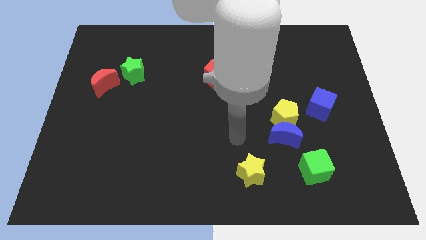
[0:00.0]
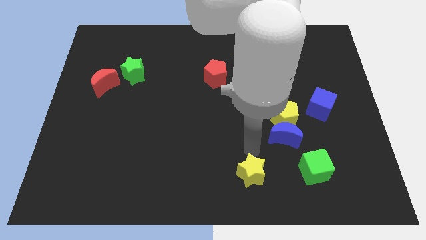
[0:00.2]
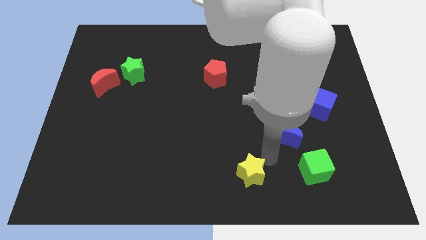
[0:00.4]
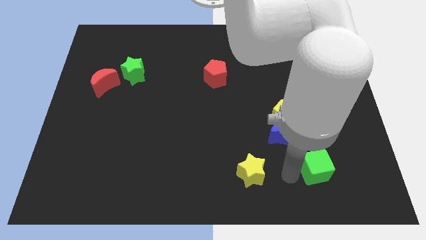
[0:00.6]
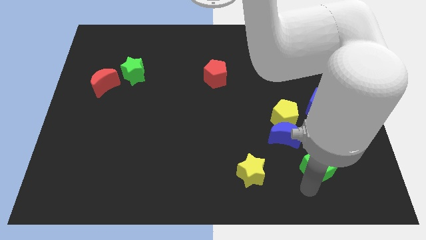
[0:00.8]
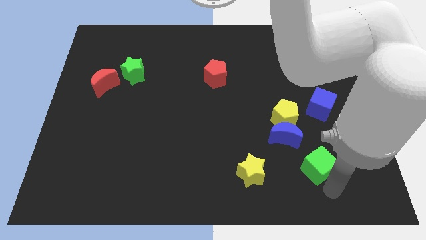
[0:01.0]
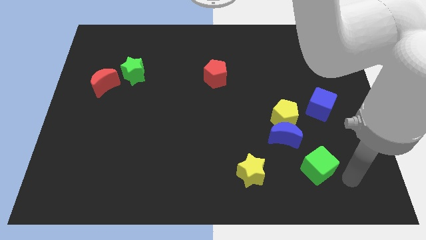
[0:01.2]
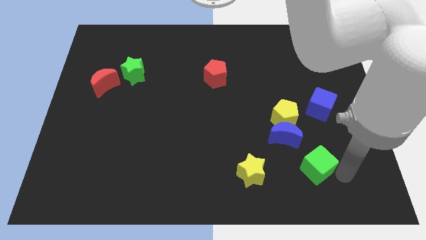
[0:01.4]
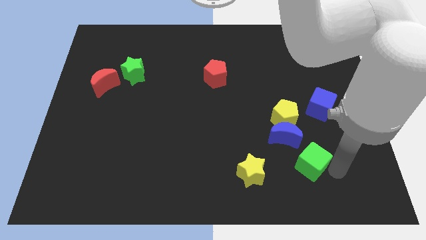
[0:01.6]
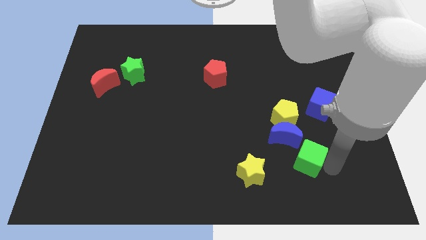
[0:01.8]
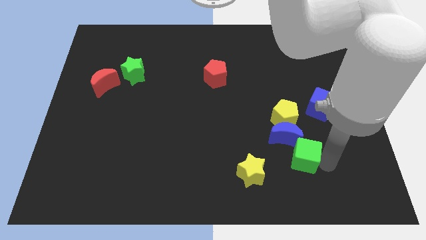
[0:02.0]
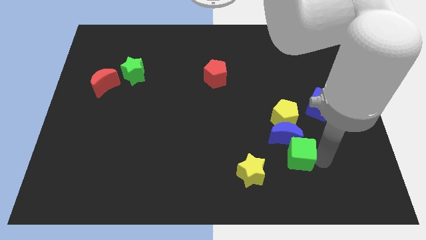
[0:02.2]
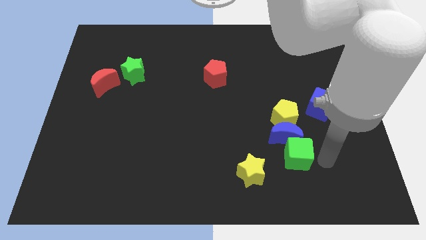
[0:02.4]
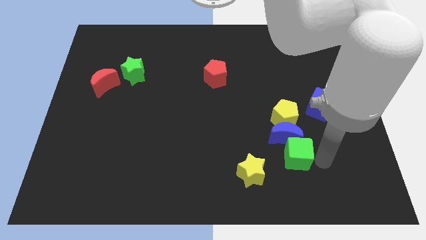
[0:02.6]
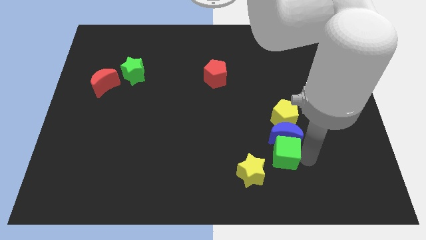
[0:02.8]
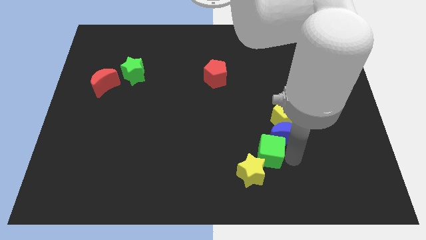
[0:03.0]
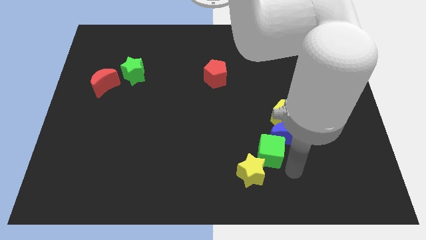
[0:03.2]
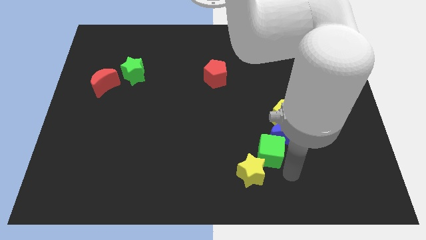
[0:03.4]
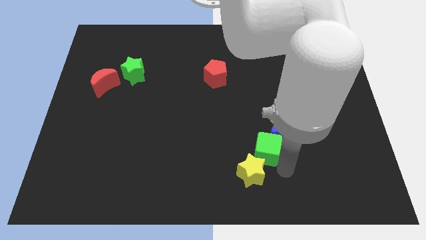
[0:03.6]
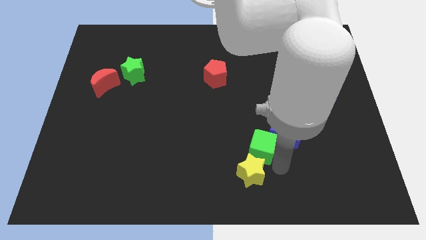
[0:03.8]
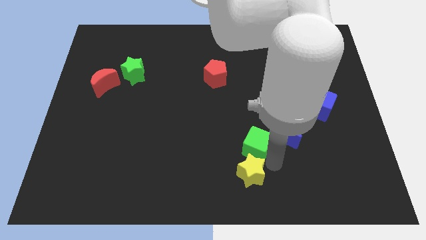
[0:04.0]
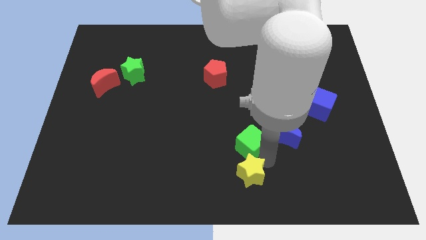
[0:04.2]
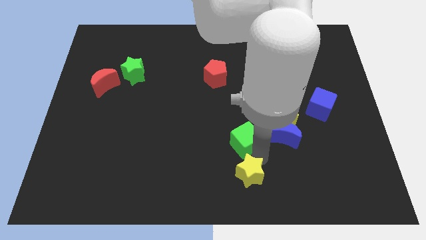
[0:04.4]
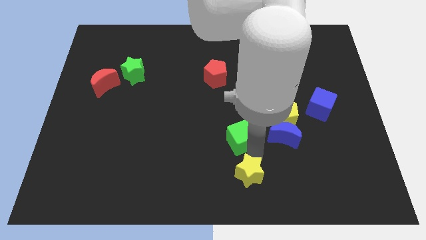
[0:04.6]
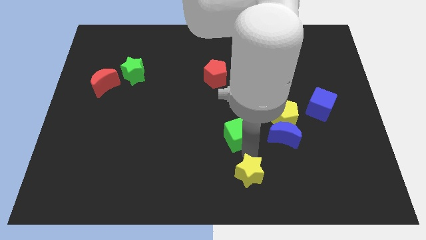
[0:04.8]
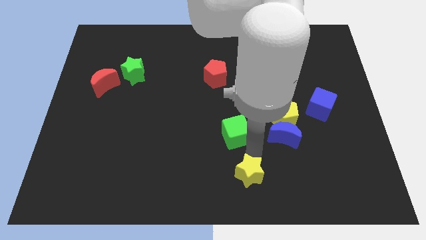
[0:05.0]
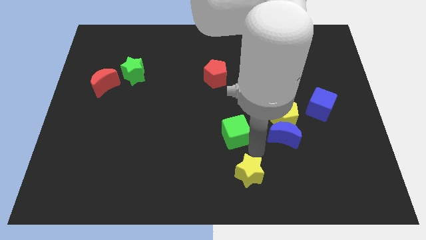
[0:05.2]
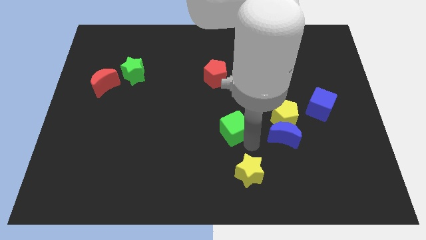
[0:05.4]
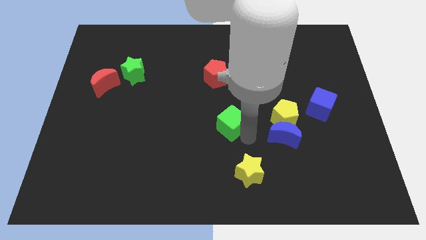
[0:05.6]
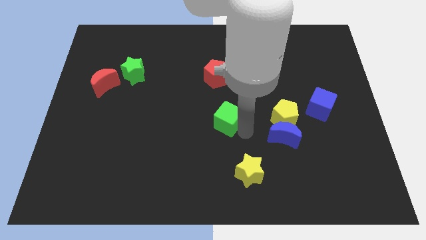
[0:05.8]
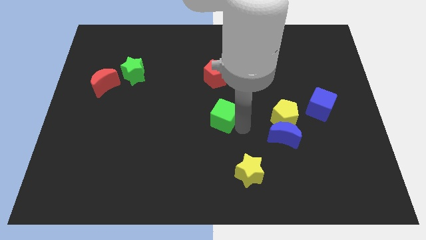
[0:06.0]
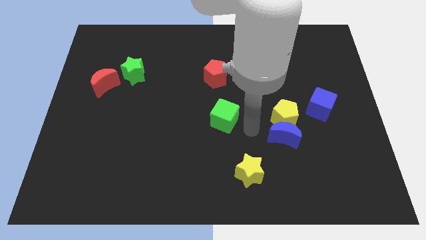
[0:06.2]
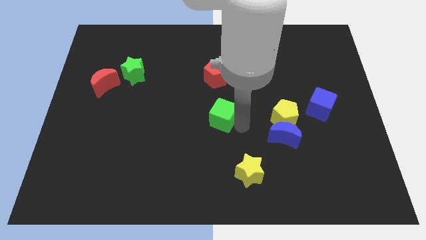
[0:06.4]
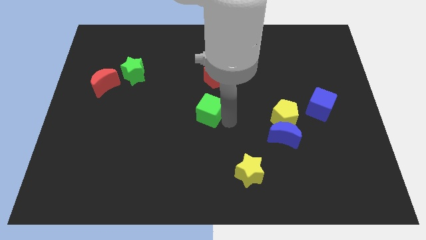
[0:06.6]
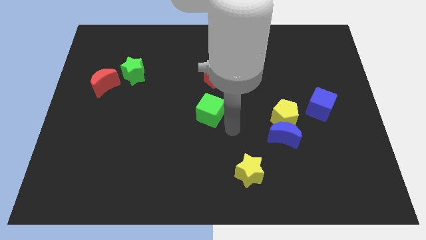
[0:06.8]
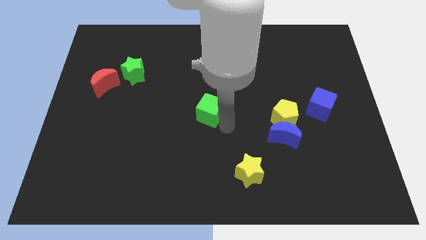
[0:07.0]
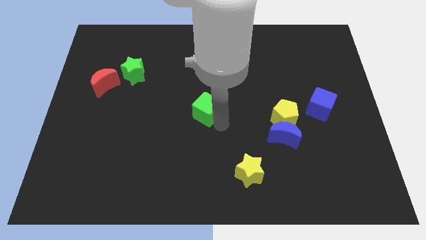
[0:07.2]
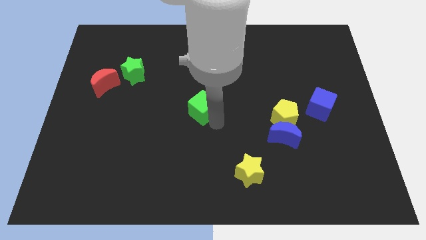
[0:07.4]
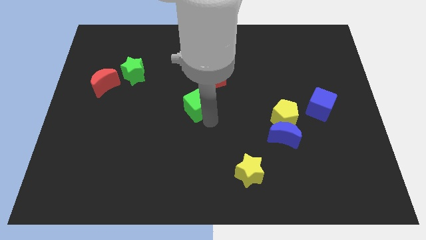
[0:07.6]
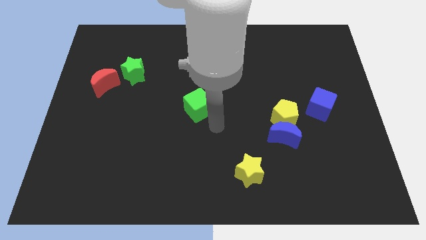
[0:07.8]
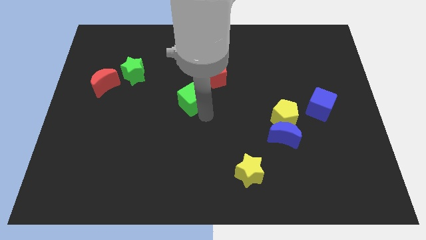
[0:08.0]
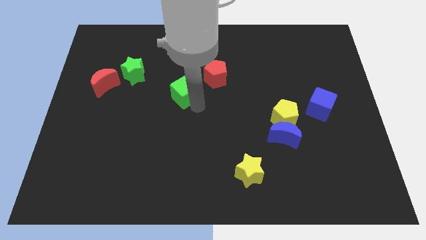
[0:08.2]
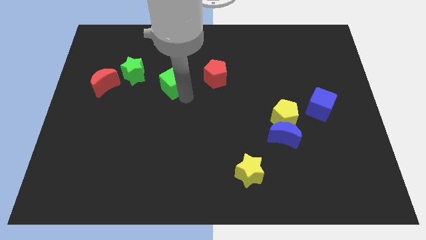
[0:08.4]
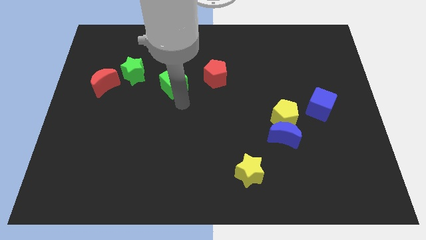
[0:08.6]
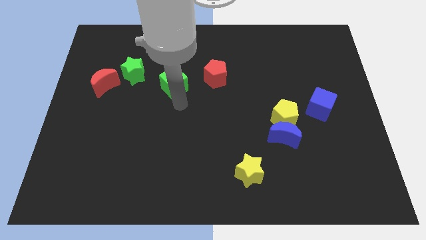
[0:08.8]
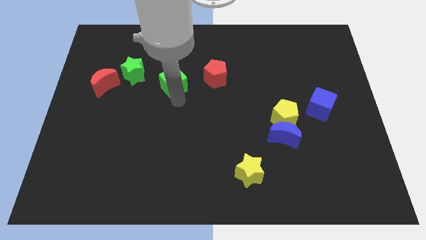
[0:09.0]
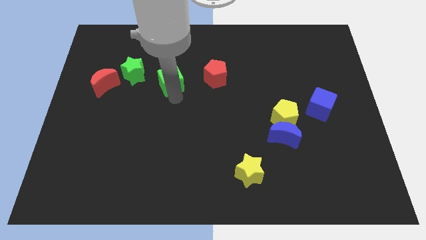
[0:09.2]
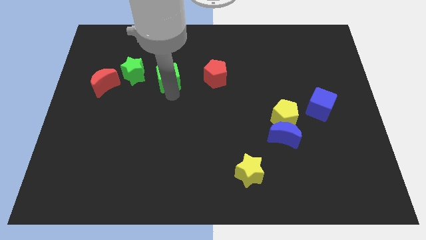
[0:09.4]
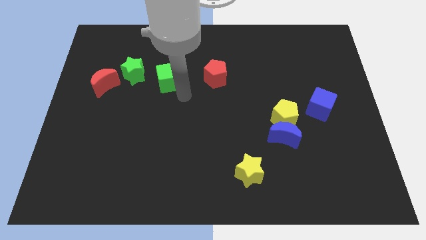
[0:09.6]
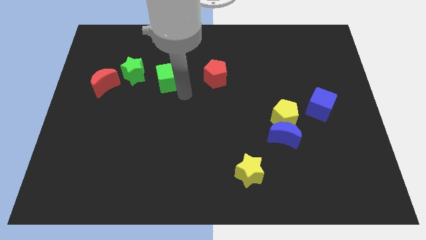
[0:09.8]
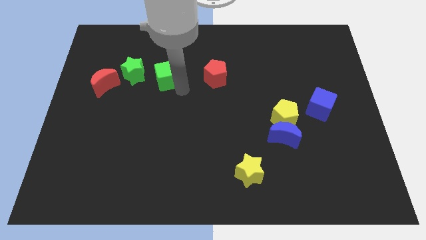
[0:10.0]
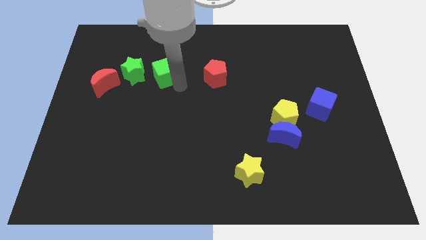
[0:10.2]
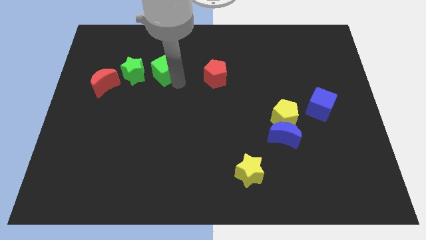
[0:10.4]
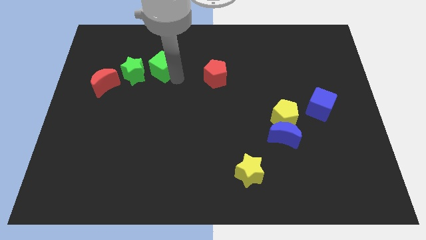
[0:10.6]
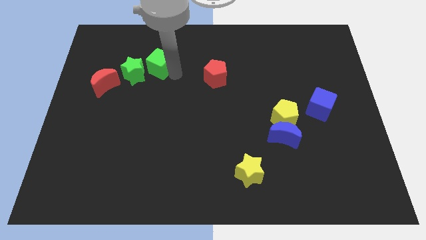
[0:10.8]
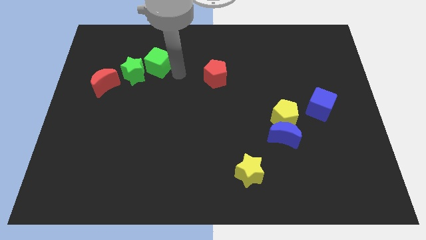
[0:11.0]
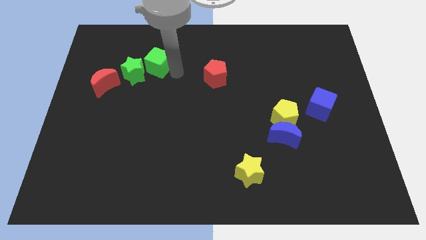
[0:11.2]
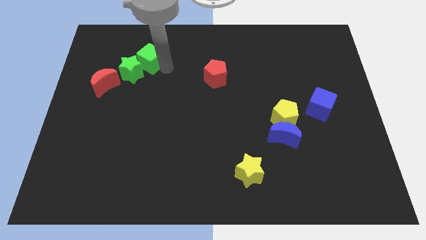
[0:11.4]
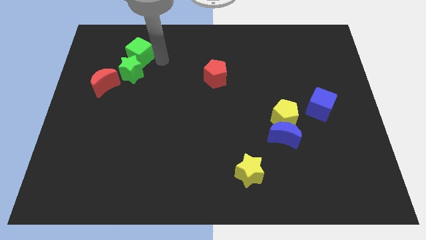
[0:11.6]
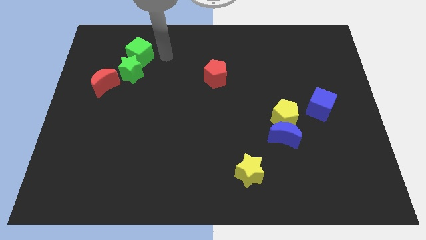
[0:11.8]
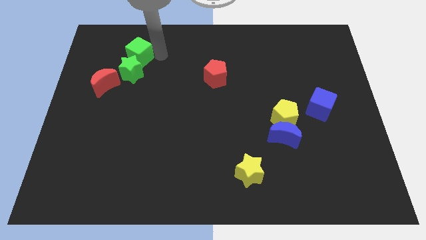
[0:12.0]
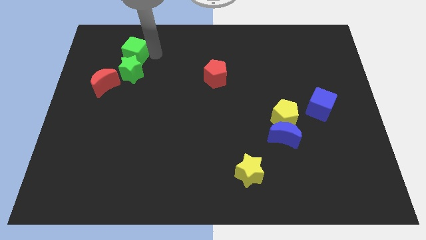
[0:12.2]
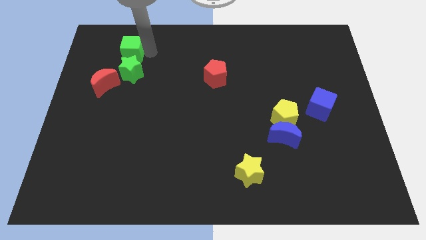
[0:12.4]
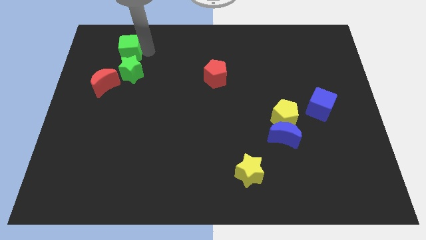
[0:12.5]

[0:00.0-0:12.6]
move the green cube to the top side of the red moon

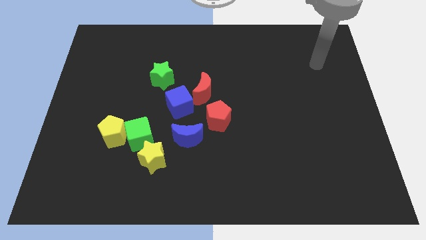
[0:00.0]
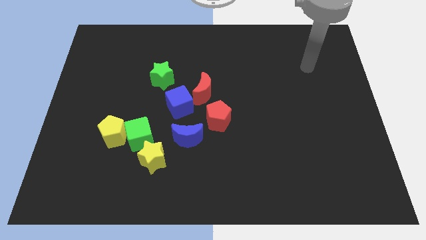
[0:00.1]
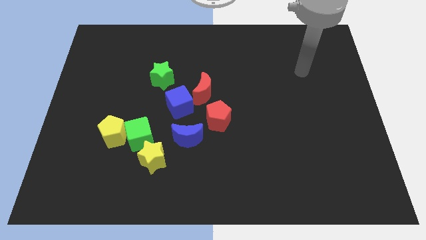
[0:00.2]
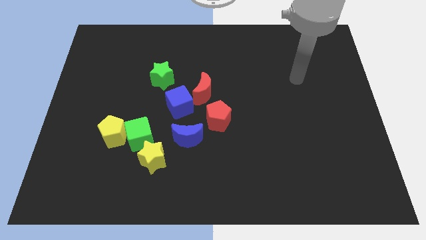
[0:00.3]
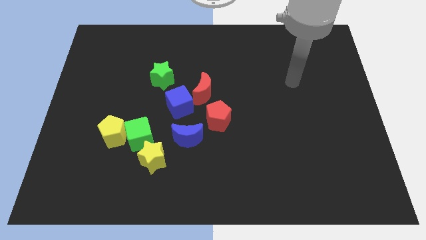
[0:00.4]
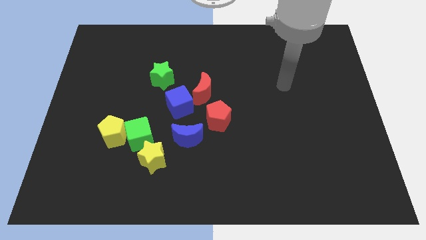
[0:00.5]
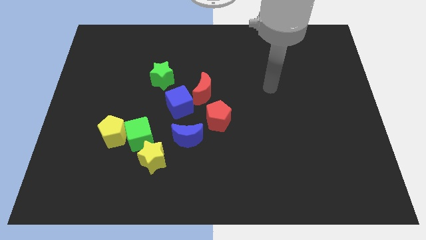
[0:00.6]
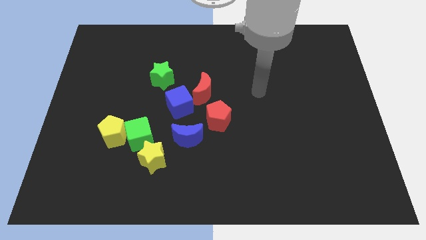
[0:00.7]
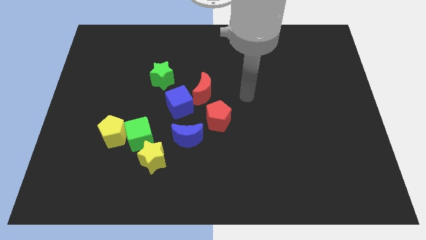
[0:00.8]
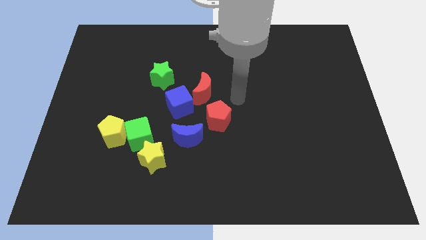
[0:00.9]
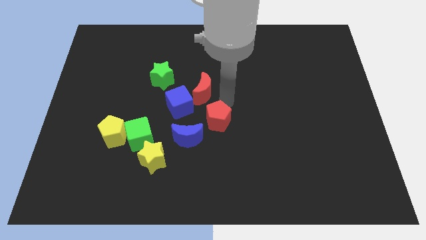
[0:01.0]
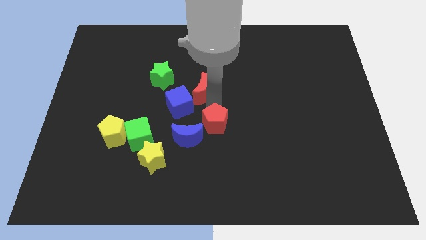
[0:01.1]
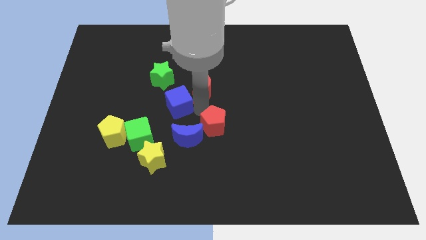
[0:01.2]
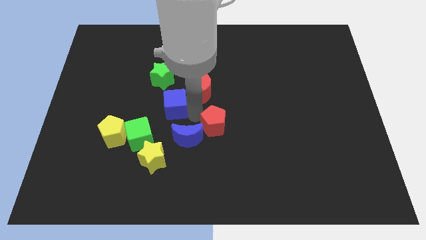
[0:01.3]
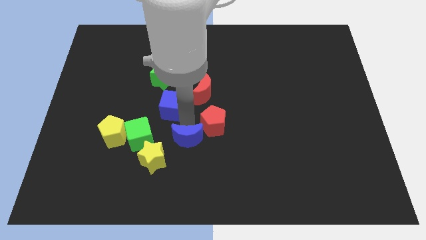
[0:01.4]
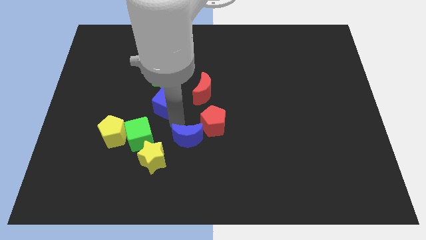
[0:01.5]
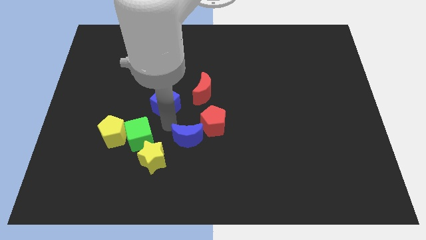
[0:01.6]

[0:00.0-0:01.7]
move the green cube to the bottom of the blue cube
